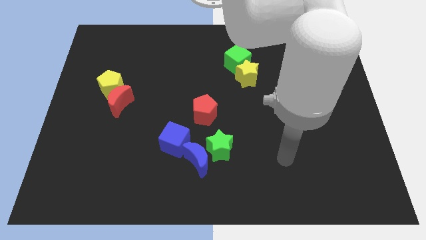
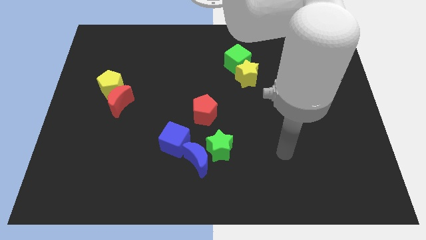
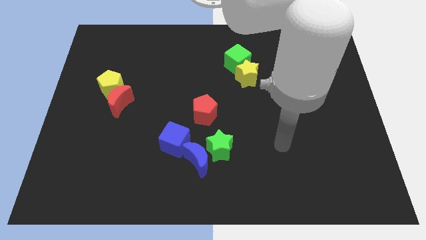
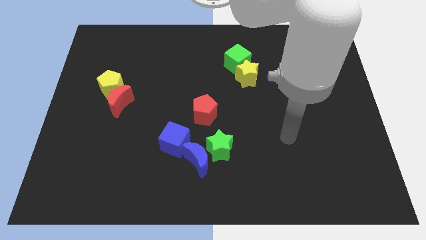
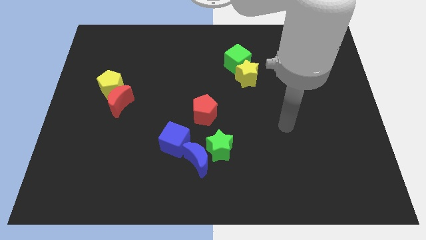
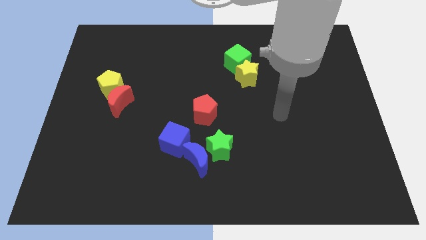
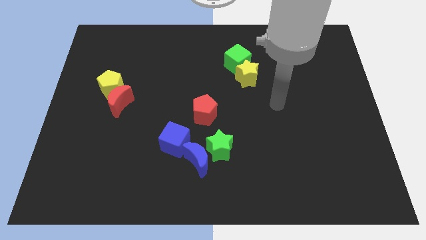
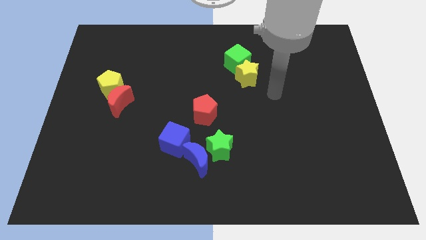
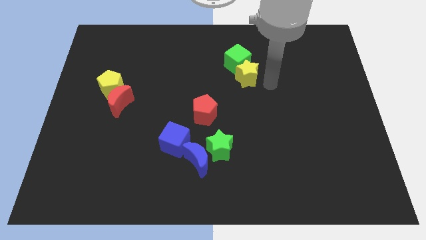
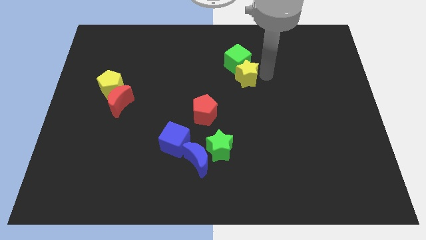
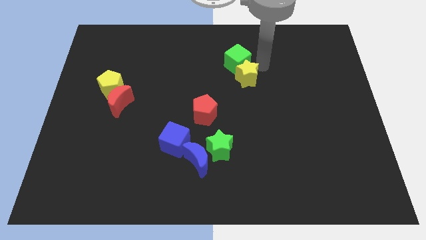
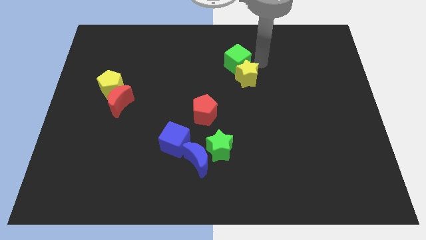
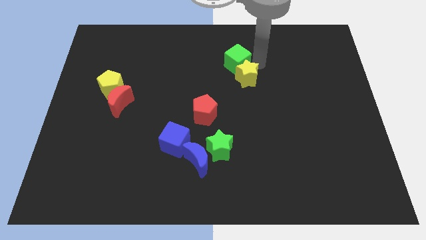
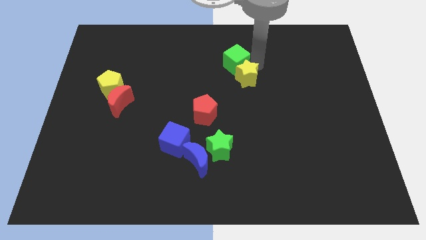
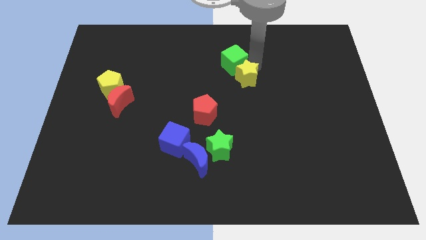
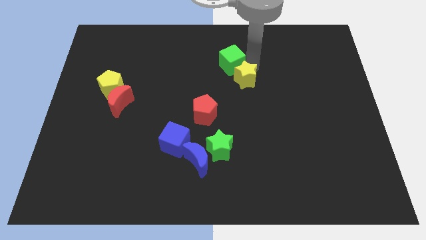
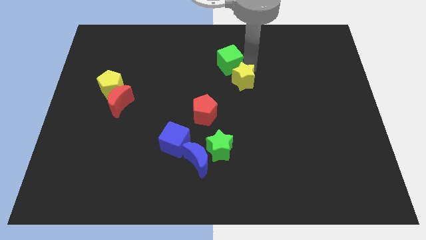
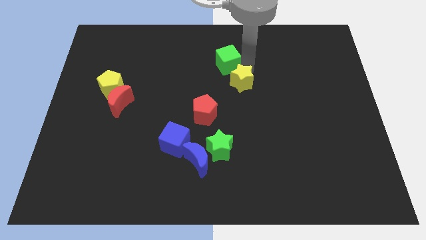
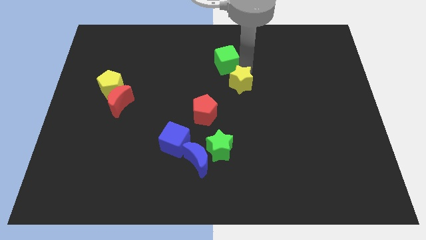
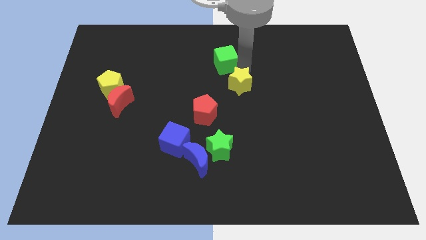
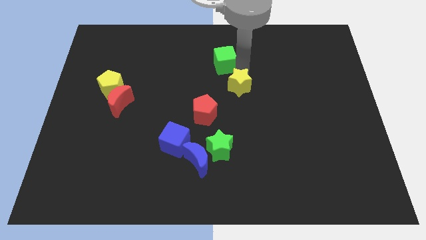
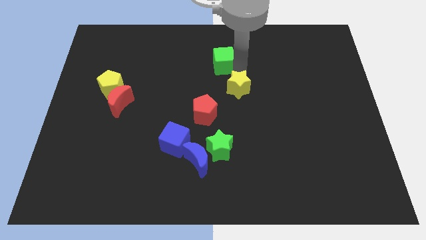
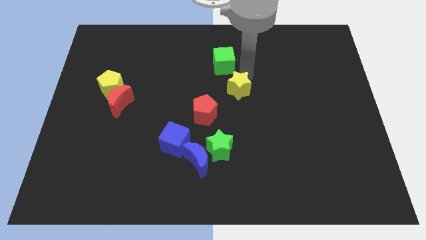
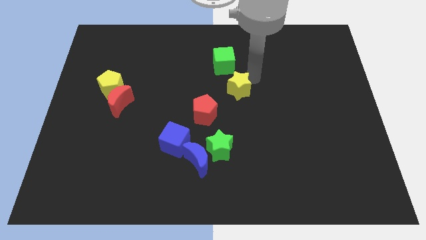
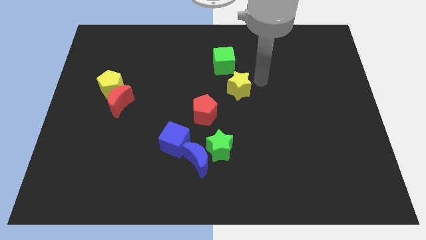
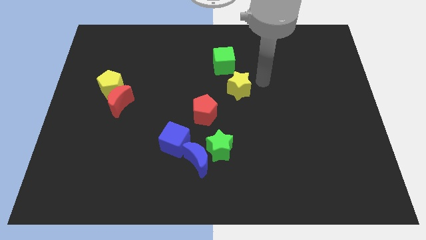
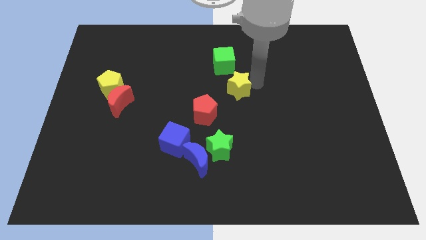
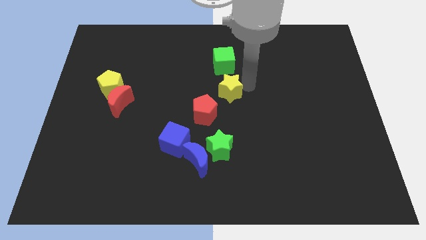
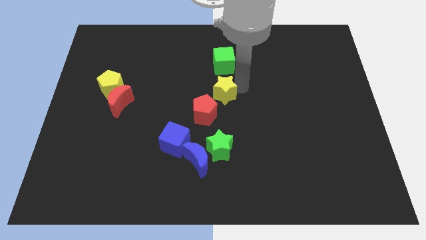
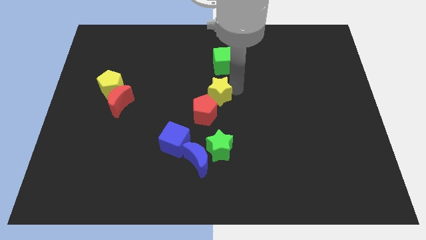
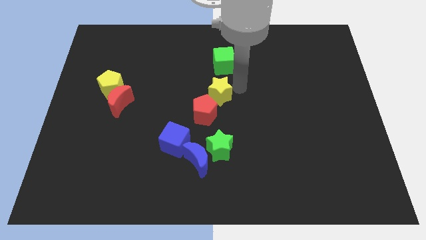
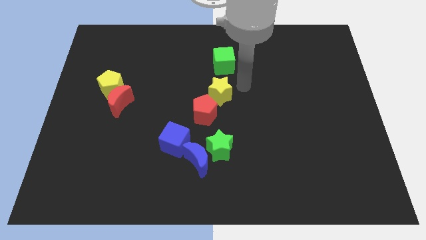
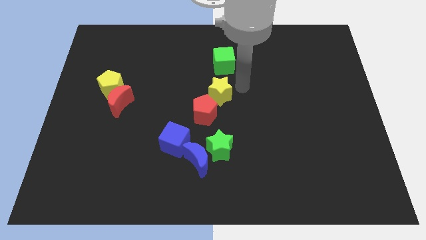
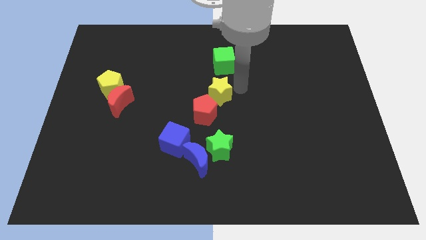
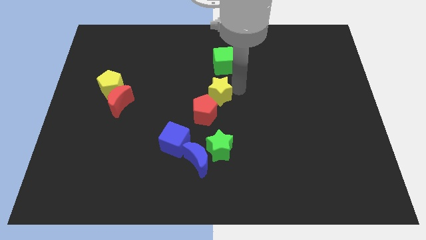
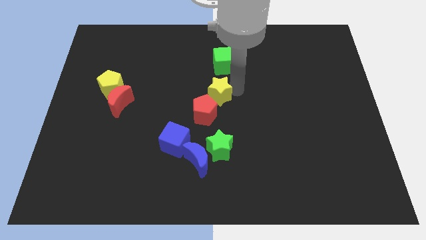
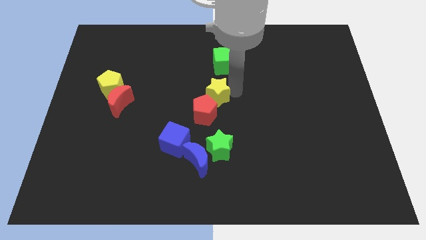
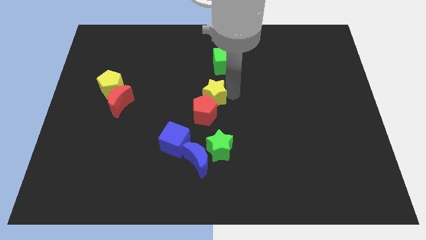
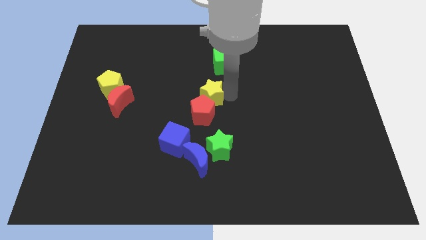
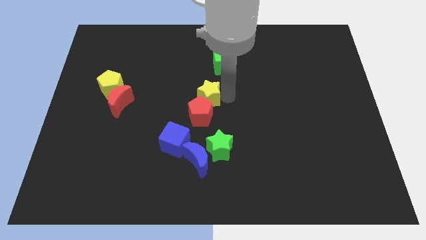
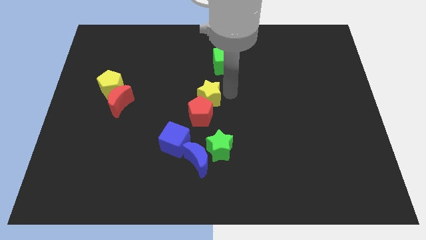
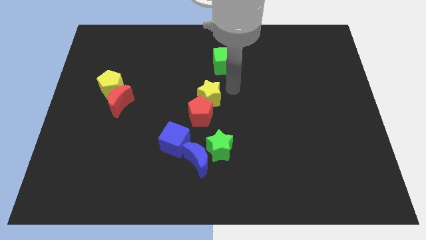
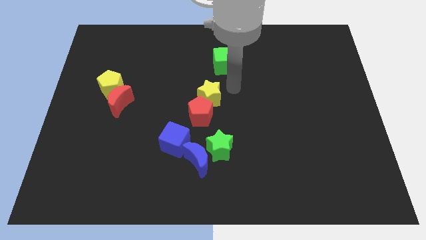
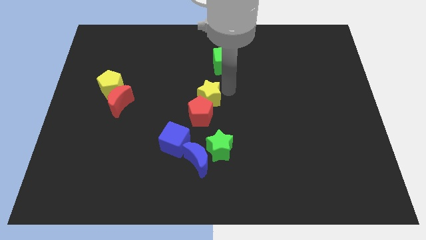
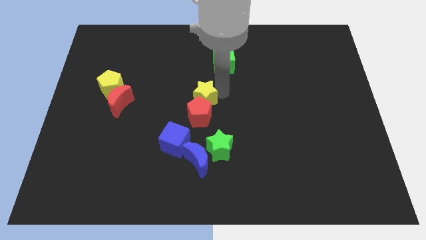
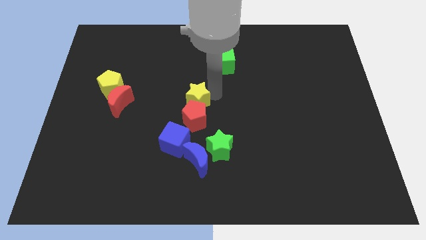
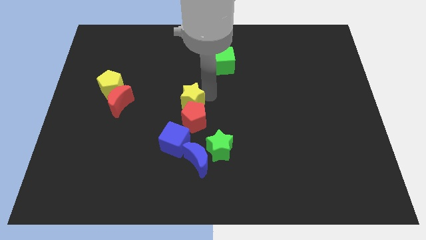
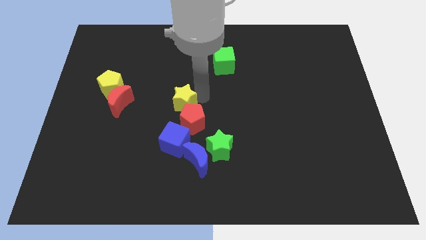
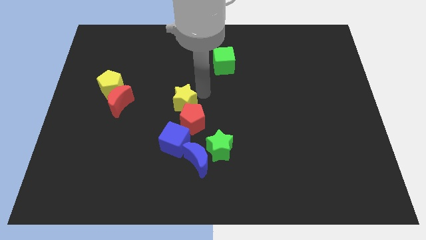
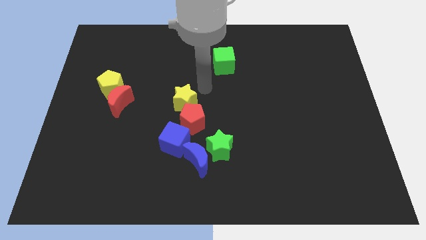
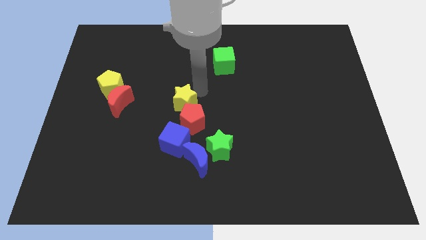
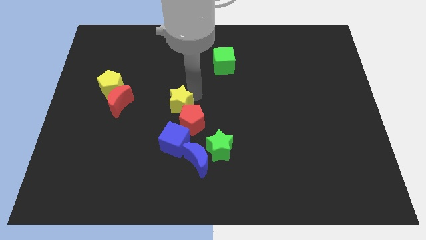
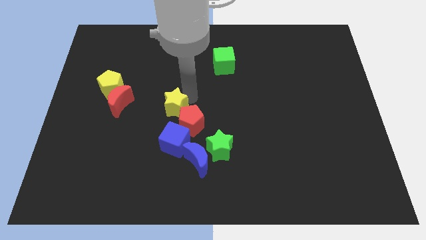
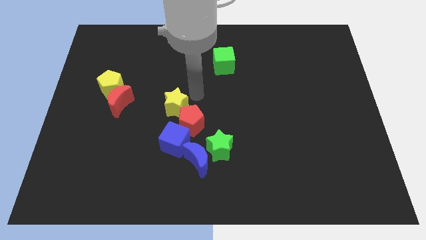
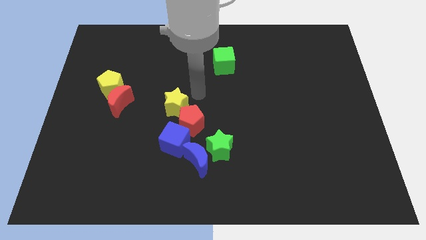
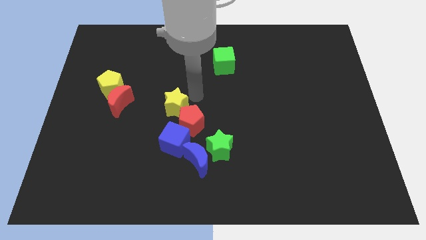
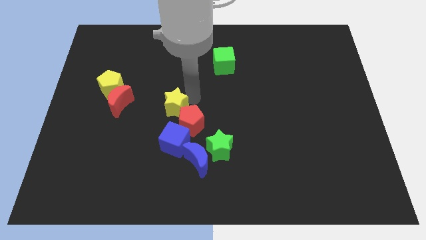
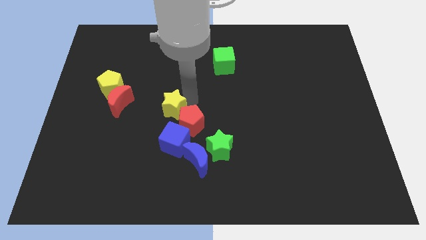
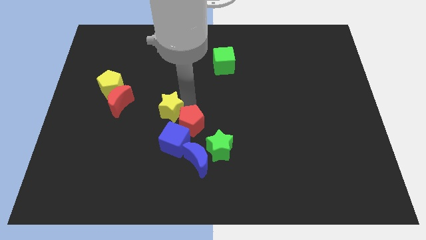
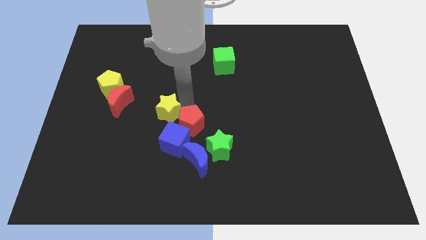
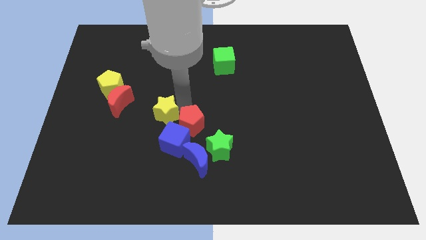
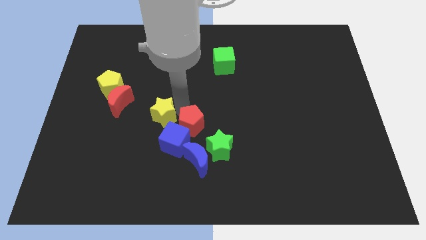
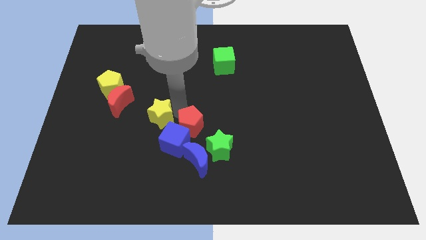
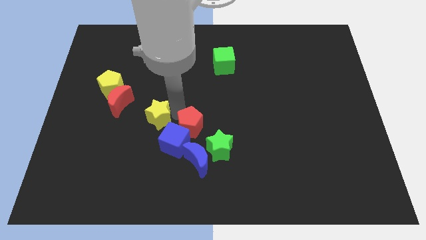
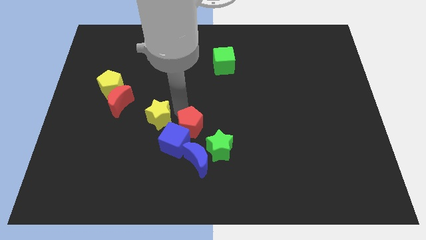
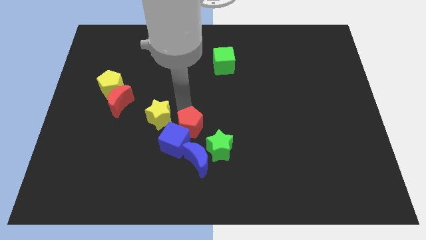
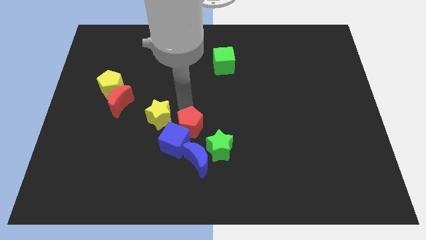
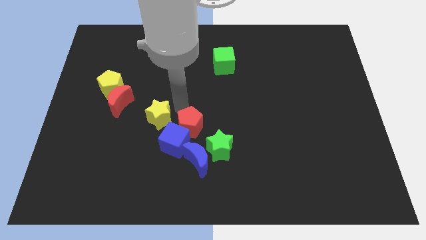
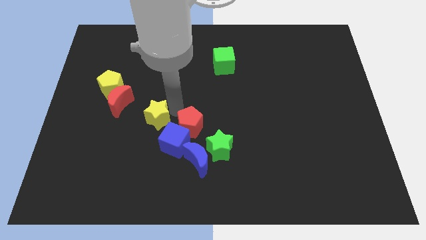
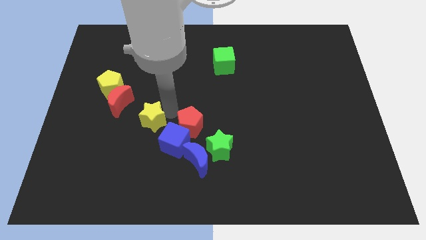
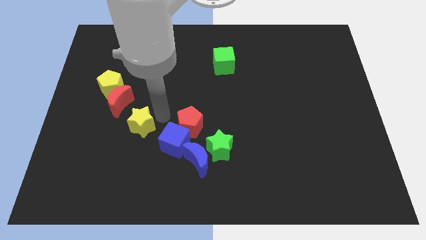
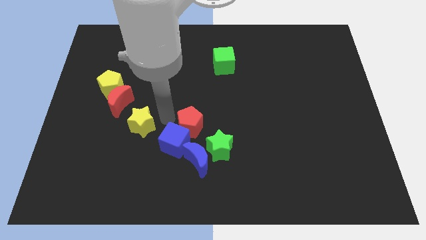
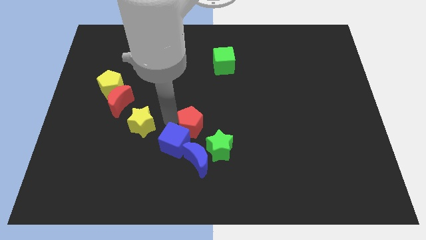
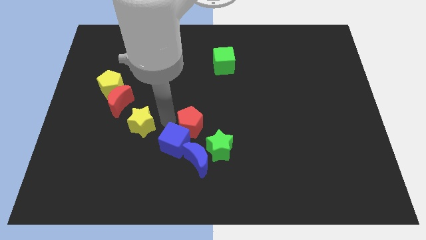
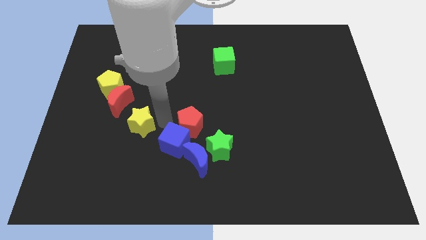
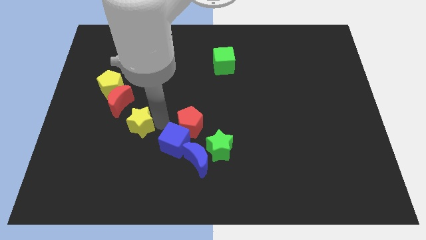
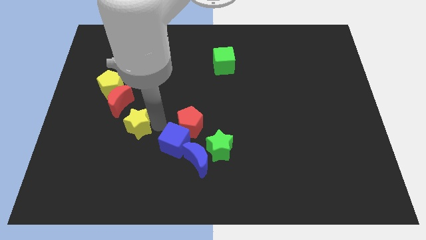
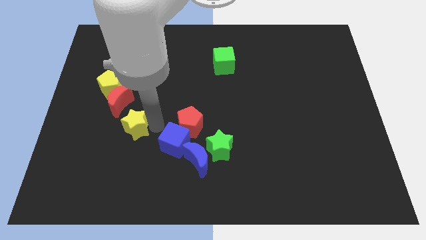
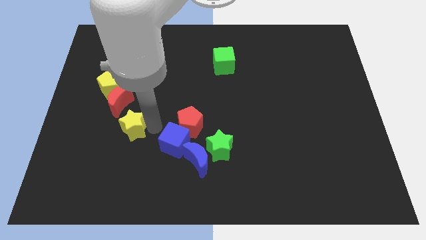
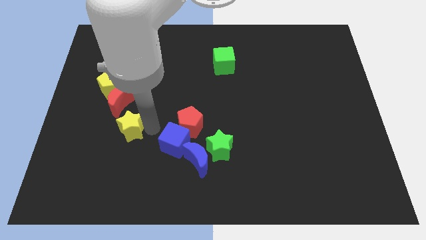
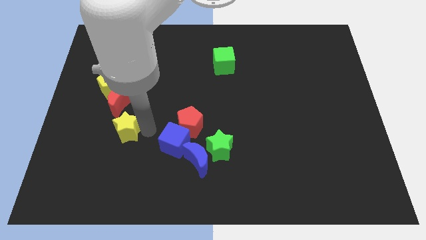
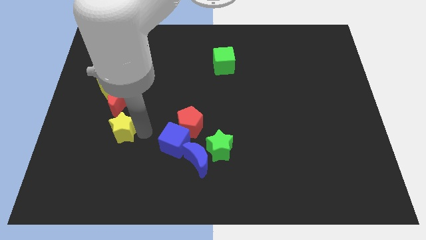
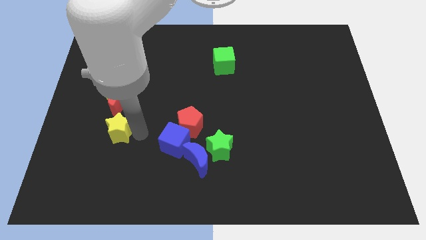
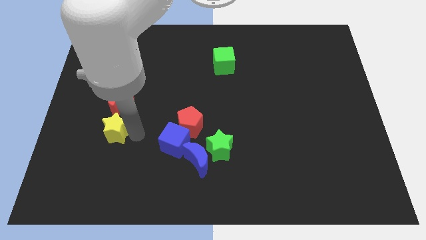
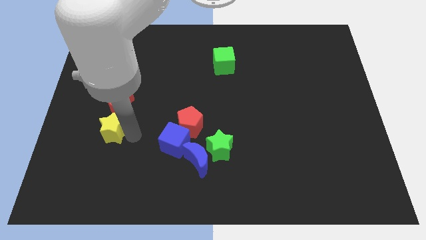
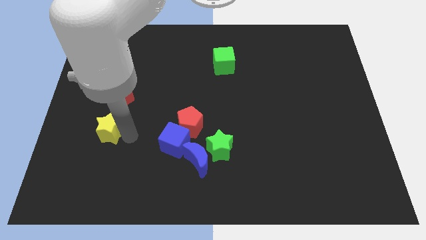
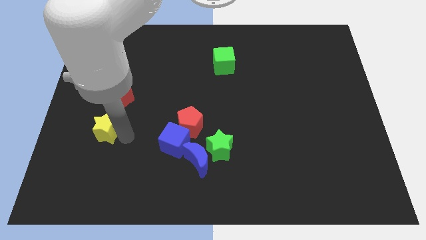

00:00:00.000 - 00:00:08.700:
push the yellow star to the bottom left of the red moon
